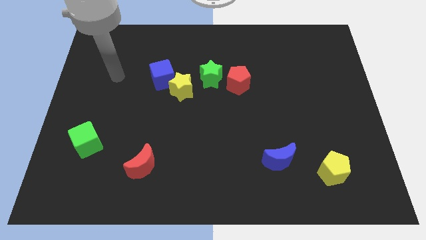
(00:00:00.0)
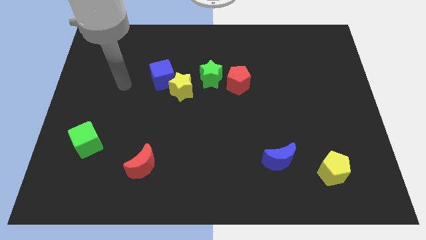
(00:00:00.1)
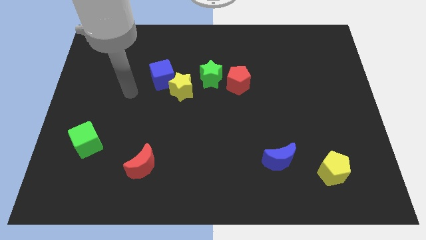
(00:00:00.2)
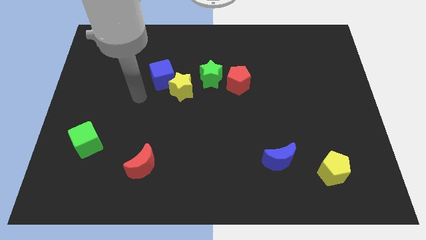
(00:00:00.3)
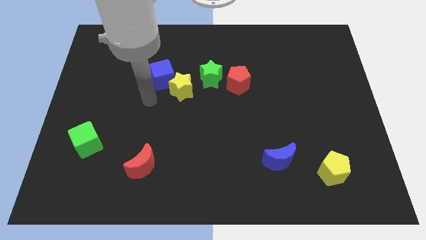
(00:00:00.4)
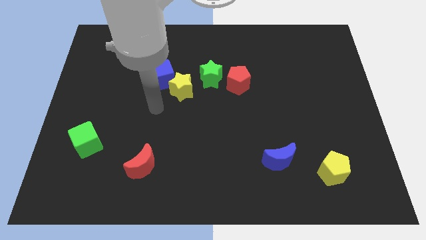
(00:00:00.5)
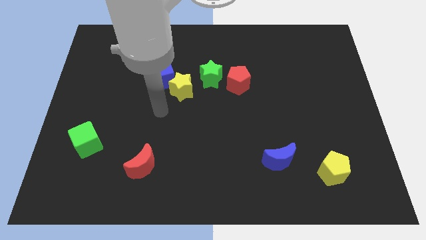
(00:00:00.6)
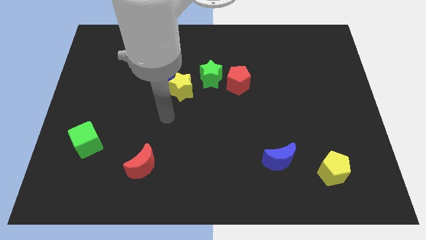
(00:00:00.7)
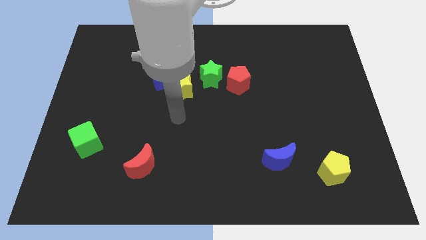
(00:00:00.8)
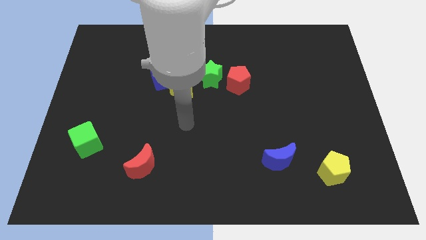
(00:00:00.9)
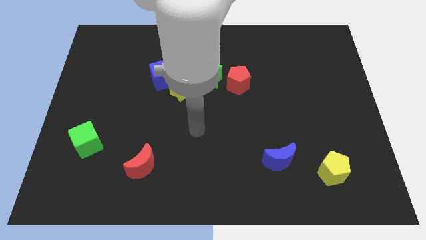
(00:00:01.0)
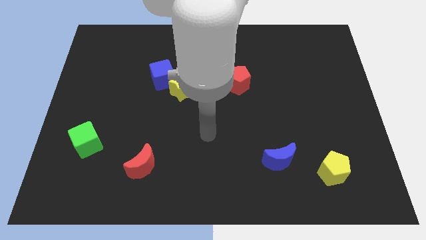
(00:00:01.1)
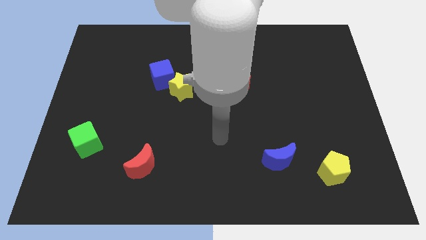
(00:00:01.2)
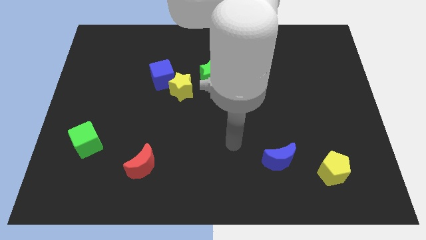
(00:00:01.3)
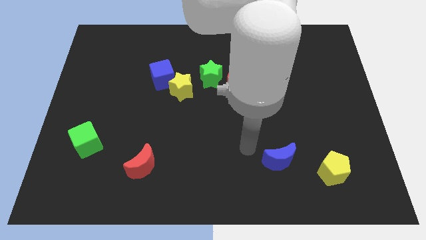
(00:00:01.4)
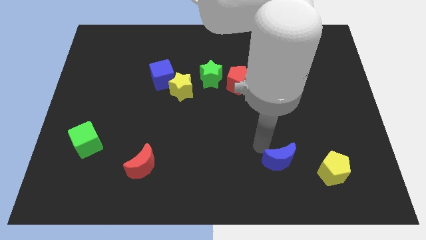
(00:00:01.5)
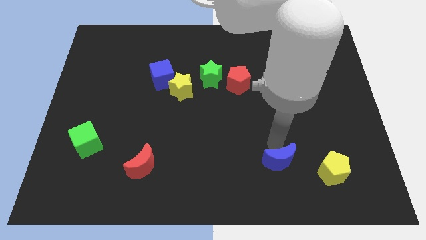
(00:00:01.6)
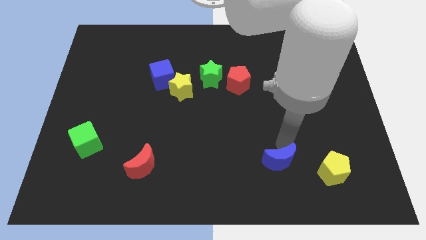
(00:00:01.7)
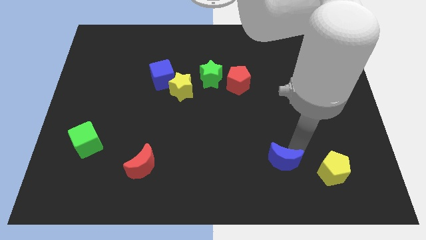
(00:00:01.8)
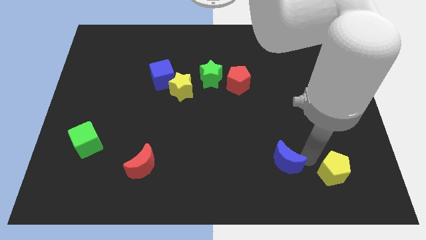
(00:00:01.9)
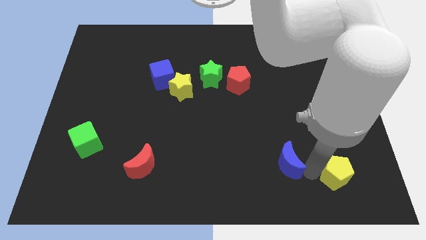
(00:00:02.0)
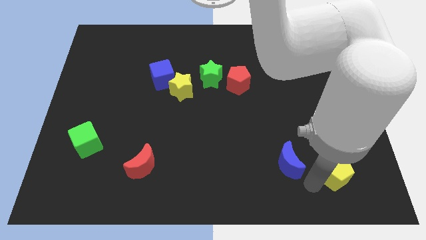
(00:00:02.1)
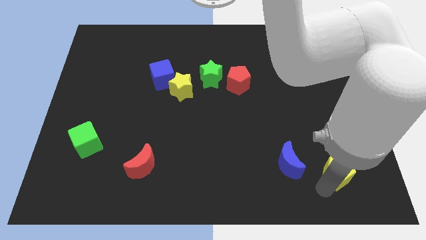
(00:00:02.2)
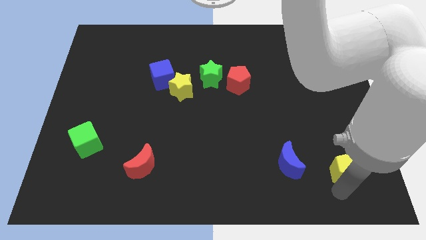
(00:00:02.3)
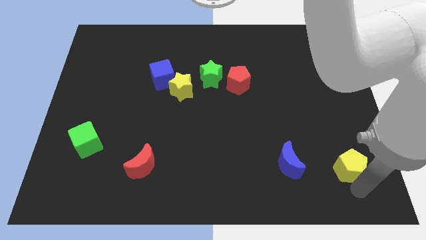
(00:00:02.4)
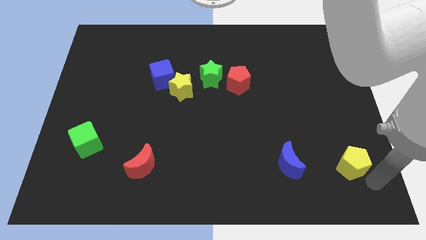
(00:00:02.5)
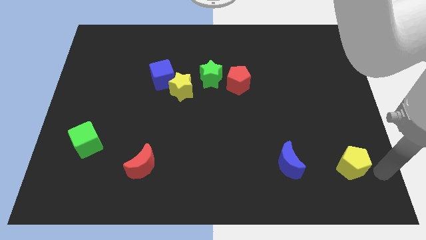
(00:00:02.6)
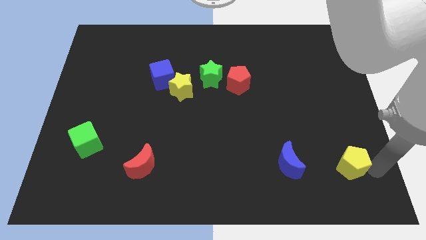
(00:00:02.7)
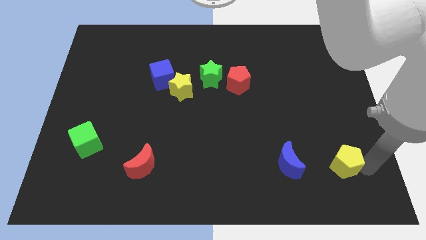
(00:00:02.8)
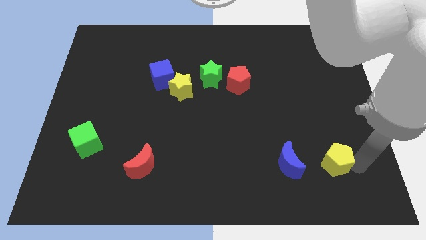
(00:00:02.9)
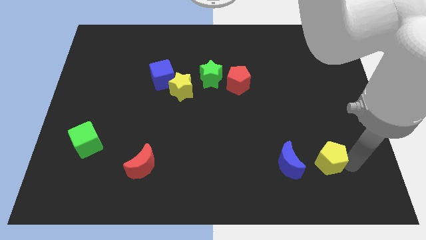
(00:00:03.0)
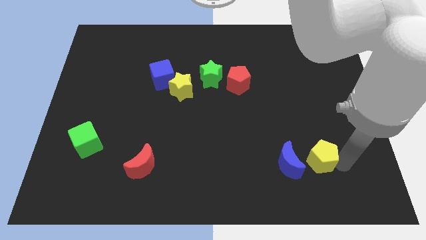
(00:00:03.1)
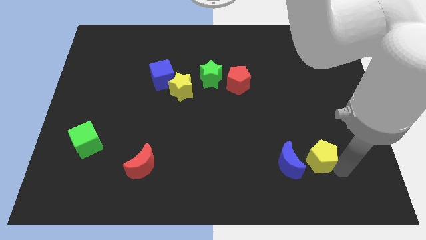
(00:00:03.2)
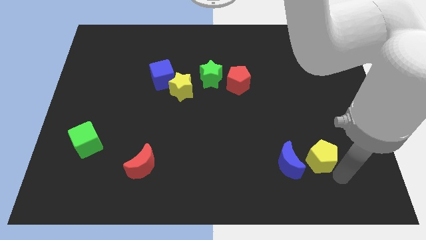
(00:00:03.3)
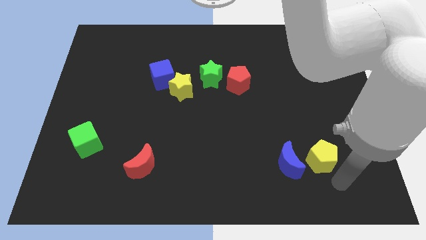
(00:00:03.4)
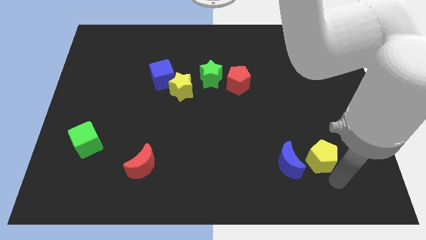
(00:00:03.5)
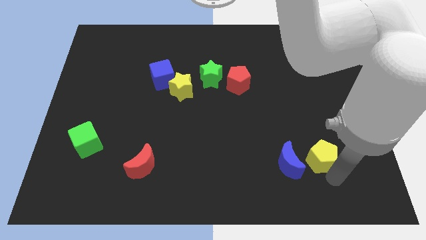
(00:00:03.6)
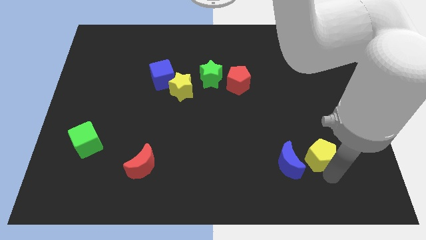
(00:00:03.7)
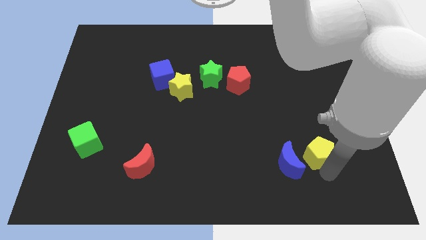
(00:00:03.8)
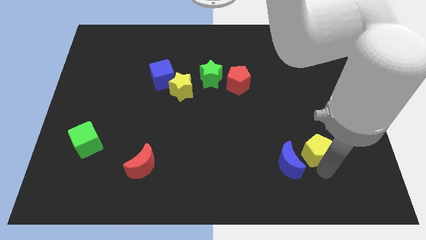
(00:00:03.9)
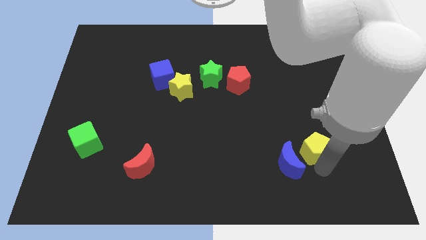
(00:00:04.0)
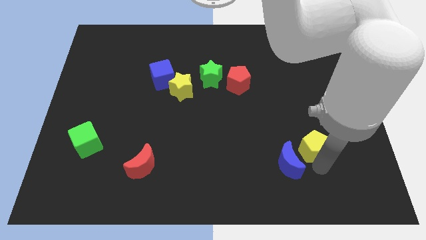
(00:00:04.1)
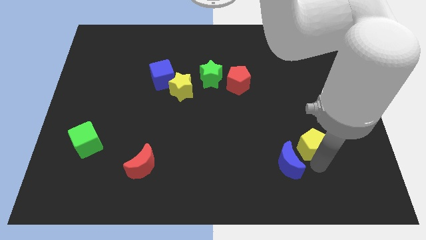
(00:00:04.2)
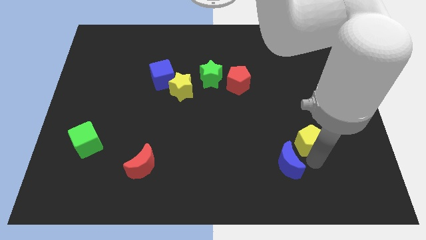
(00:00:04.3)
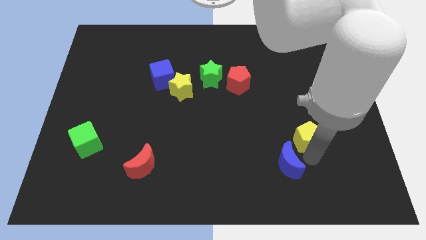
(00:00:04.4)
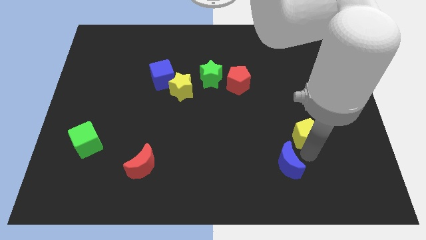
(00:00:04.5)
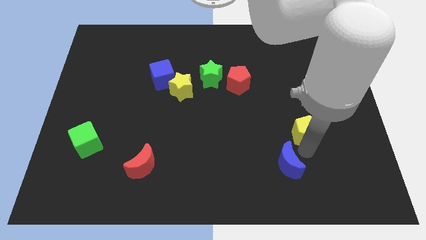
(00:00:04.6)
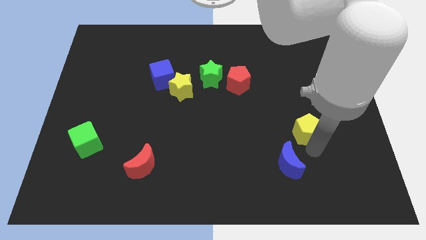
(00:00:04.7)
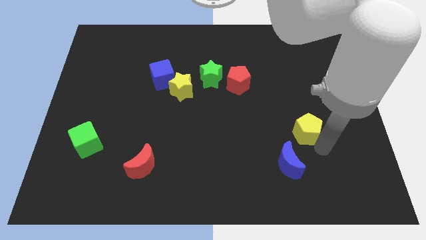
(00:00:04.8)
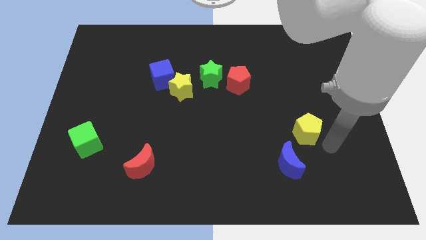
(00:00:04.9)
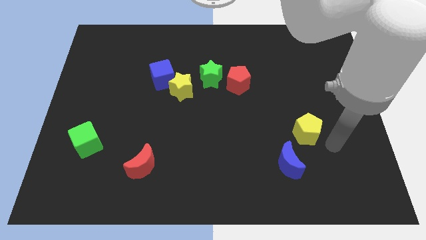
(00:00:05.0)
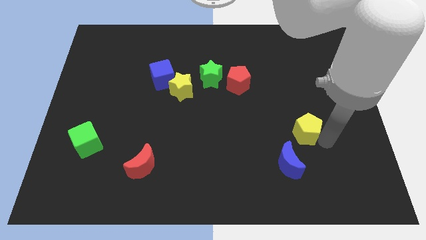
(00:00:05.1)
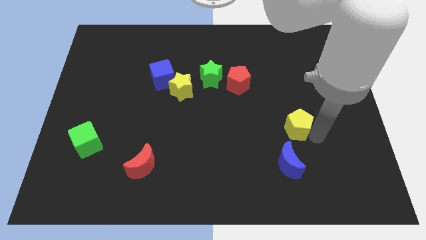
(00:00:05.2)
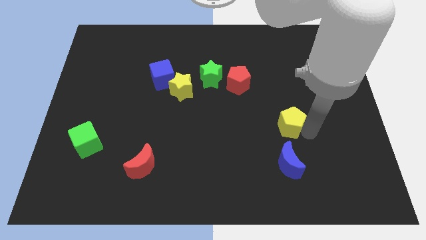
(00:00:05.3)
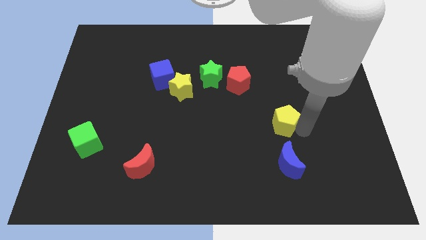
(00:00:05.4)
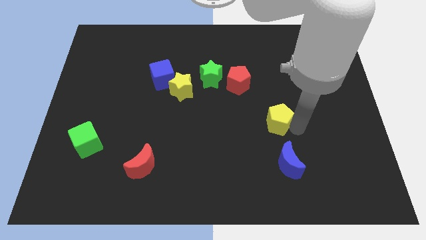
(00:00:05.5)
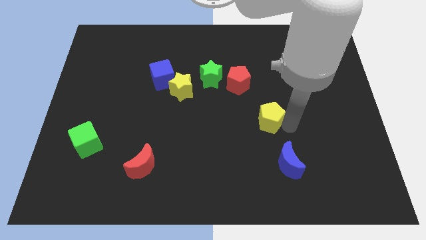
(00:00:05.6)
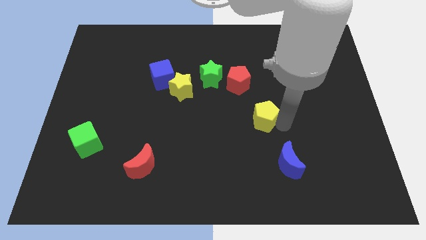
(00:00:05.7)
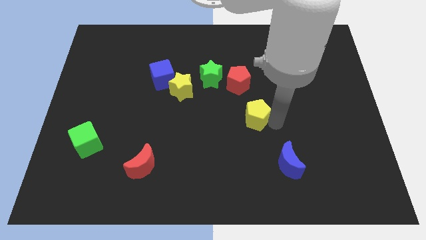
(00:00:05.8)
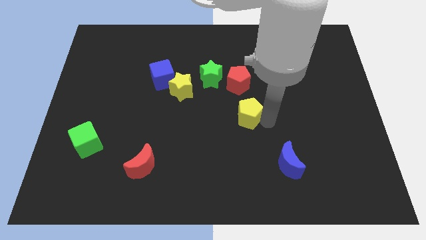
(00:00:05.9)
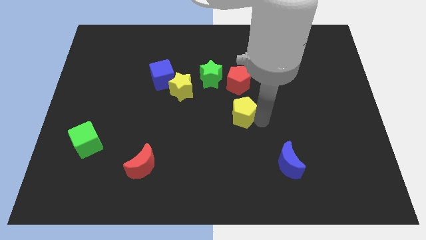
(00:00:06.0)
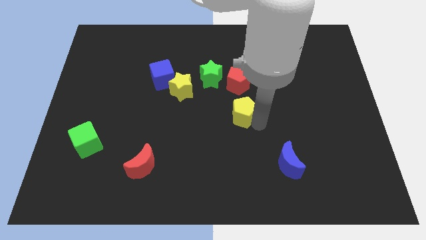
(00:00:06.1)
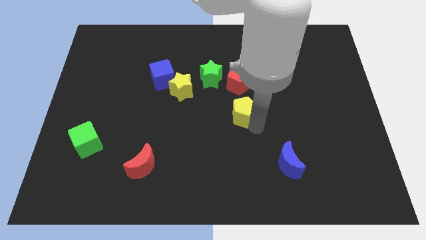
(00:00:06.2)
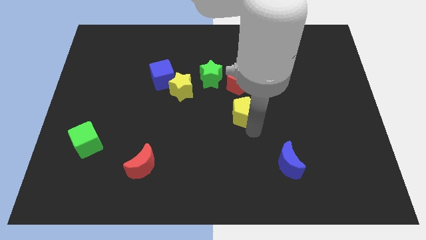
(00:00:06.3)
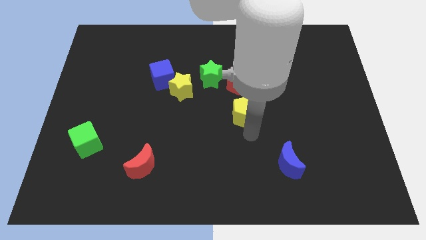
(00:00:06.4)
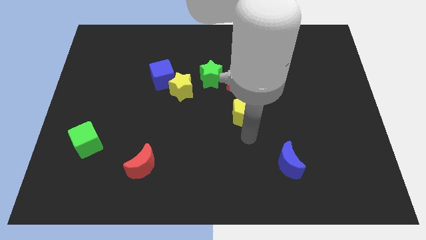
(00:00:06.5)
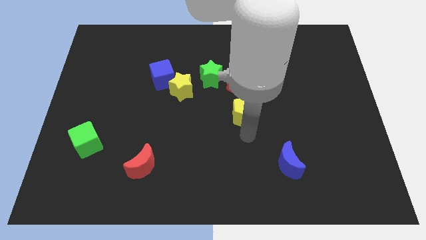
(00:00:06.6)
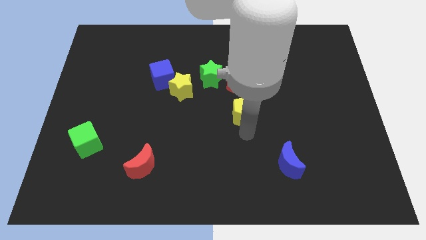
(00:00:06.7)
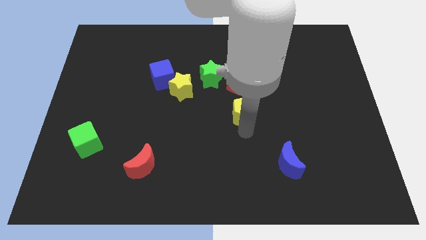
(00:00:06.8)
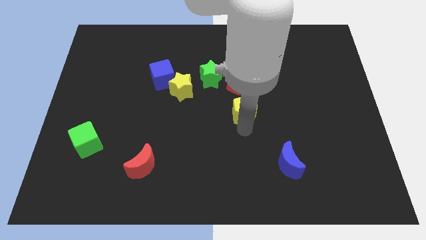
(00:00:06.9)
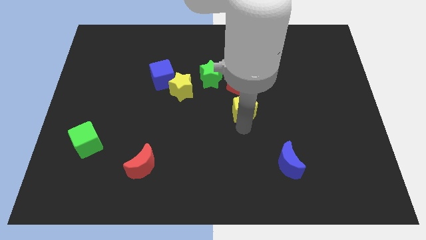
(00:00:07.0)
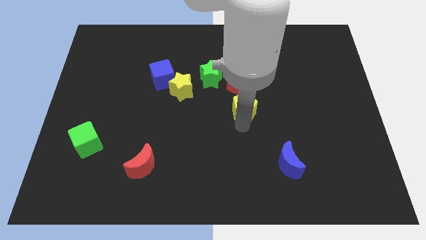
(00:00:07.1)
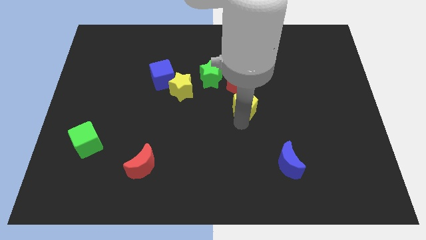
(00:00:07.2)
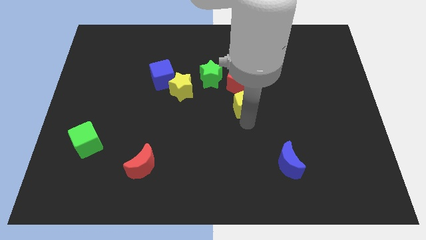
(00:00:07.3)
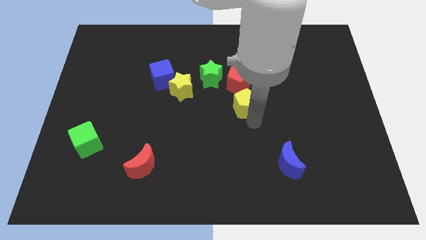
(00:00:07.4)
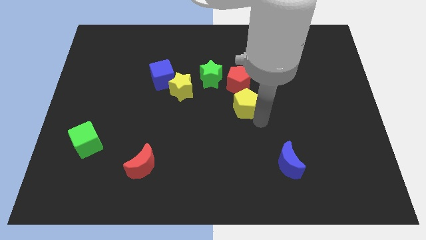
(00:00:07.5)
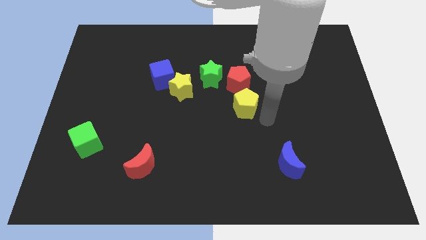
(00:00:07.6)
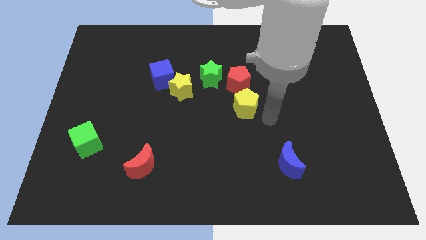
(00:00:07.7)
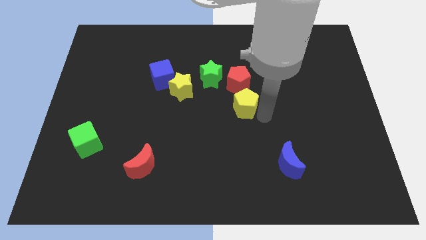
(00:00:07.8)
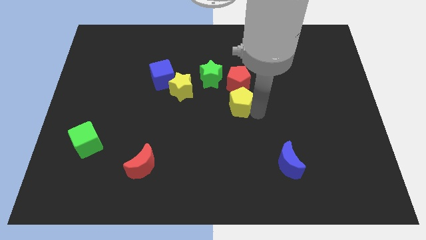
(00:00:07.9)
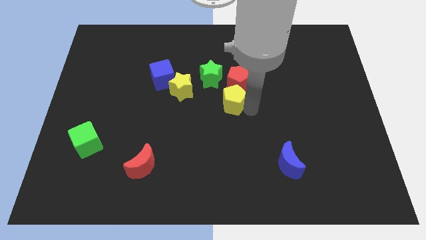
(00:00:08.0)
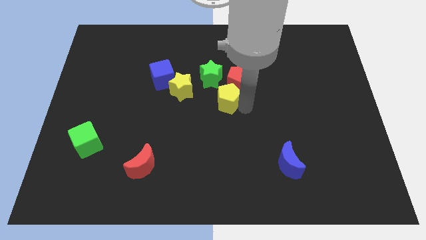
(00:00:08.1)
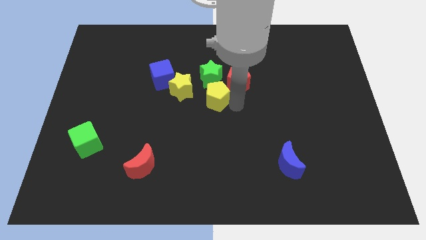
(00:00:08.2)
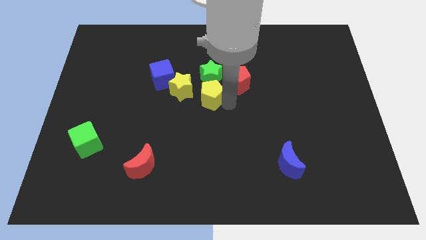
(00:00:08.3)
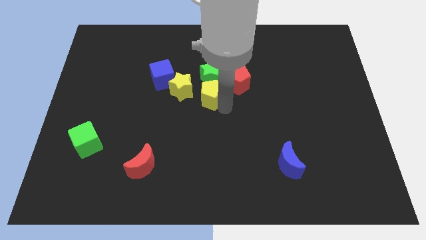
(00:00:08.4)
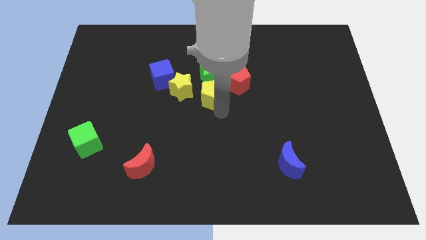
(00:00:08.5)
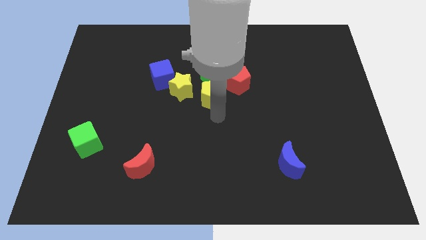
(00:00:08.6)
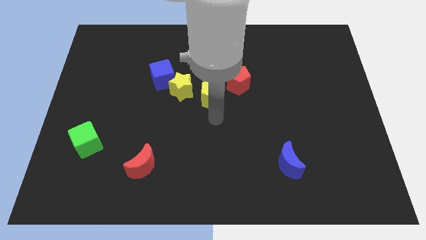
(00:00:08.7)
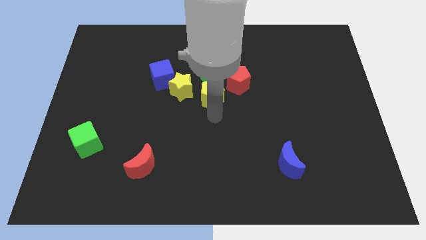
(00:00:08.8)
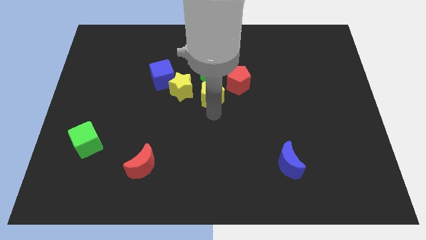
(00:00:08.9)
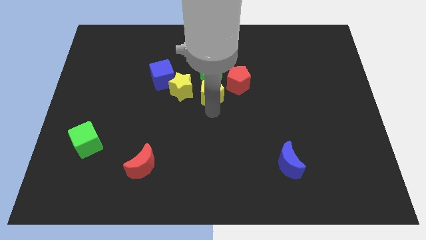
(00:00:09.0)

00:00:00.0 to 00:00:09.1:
push the yellow pentagon close to the green star
